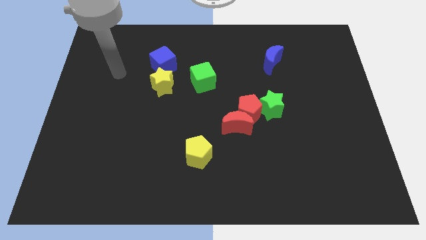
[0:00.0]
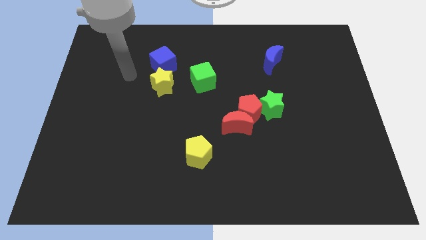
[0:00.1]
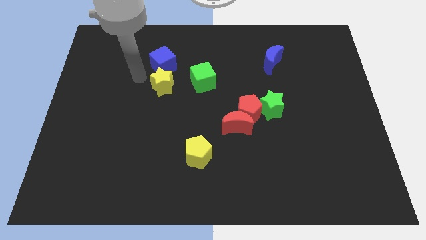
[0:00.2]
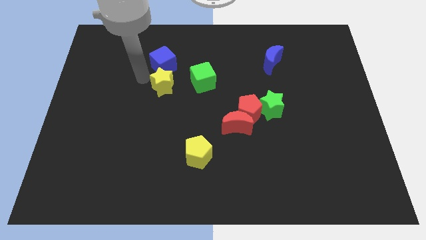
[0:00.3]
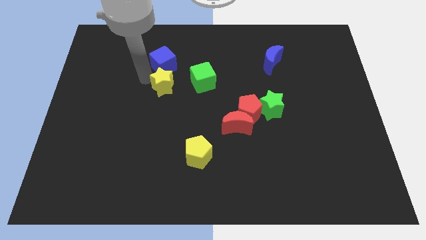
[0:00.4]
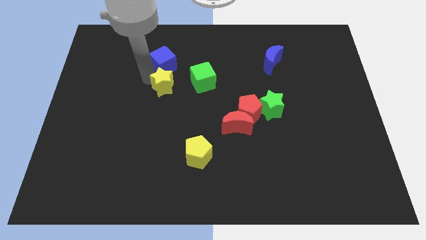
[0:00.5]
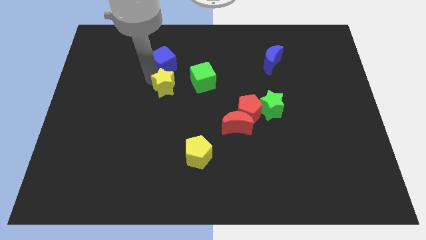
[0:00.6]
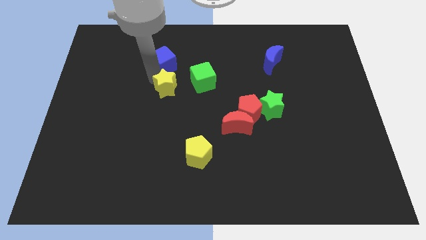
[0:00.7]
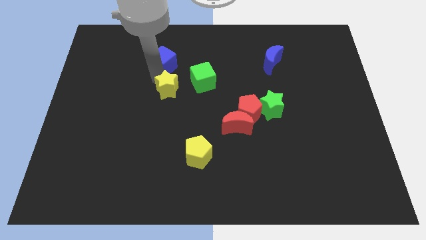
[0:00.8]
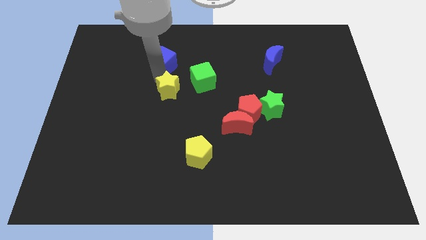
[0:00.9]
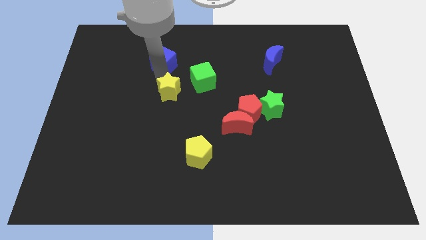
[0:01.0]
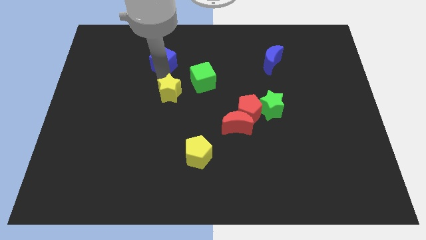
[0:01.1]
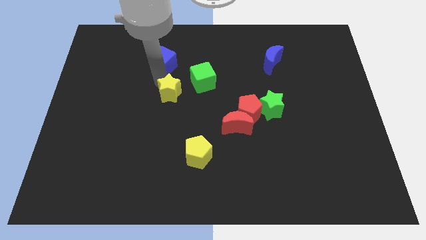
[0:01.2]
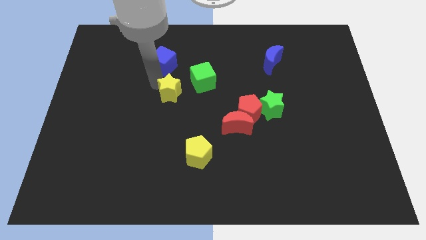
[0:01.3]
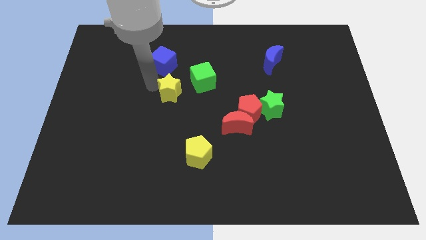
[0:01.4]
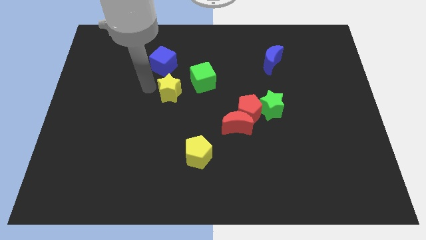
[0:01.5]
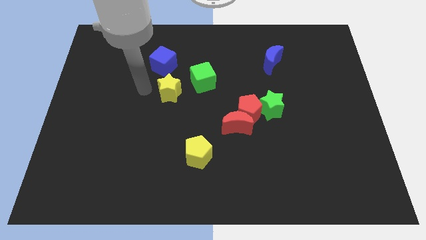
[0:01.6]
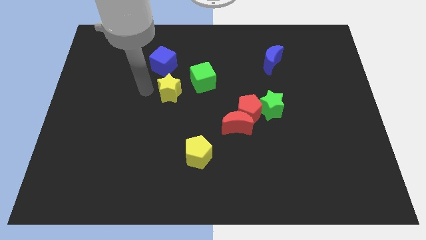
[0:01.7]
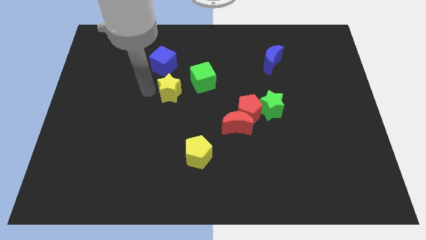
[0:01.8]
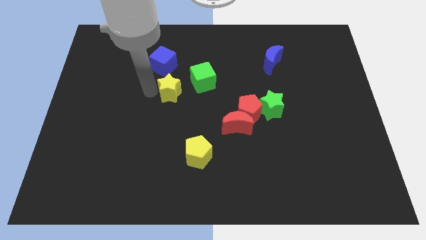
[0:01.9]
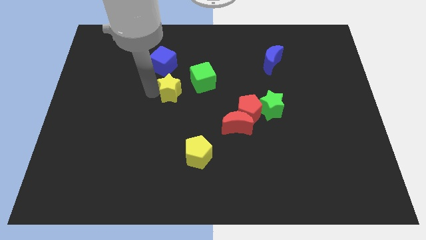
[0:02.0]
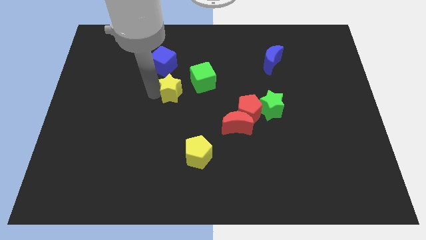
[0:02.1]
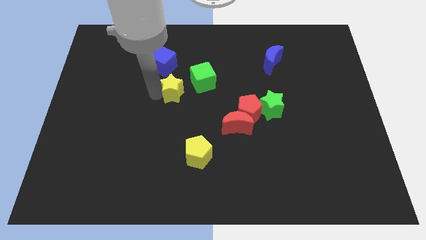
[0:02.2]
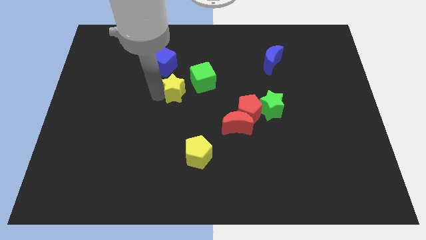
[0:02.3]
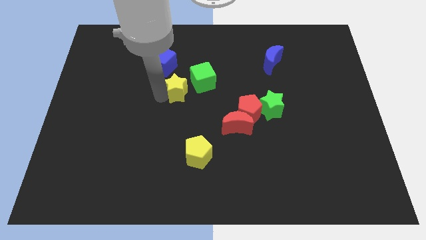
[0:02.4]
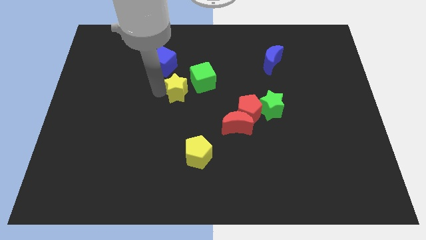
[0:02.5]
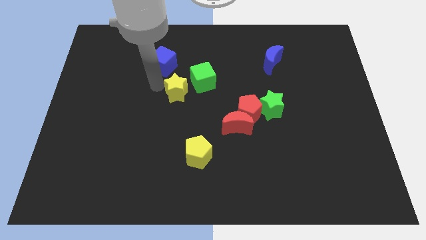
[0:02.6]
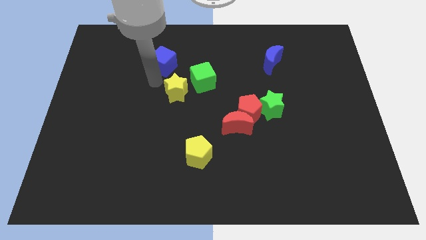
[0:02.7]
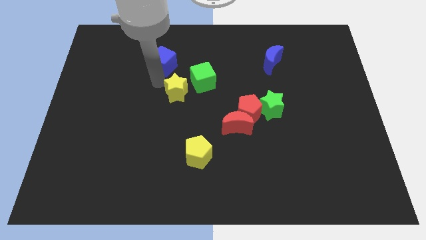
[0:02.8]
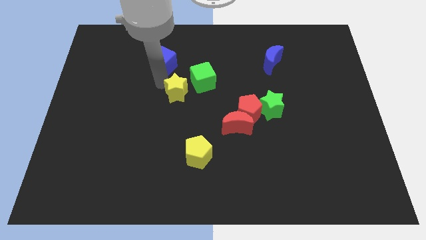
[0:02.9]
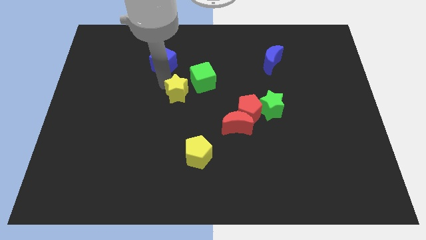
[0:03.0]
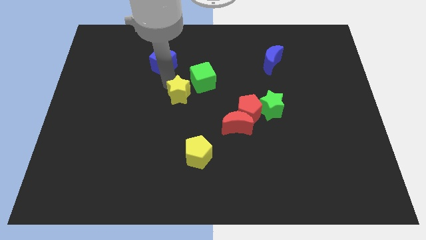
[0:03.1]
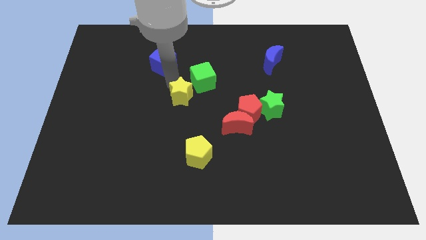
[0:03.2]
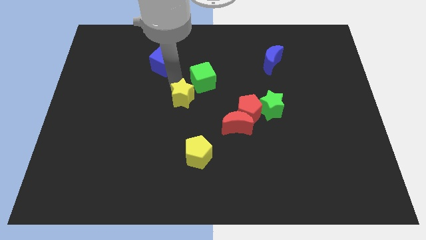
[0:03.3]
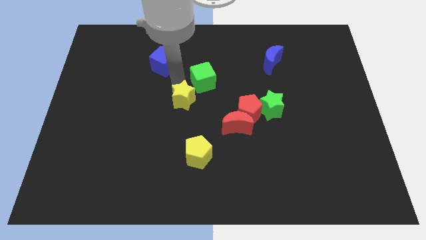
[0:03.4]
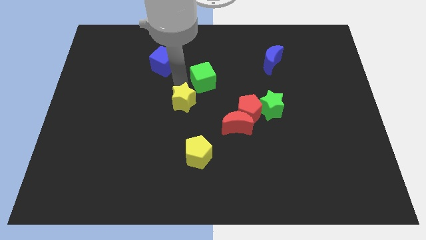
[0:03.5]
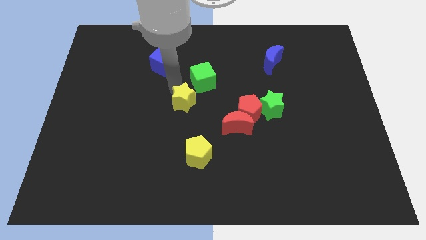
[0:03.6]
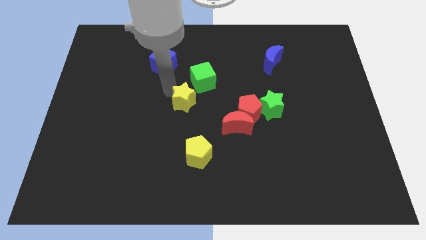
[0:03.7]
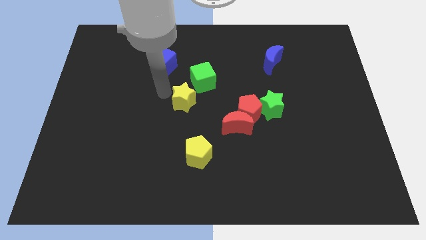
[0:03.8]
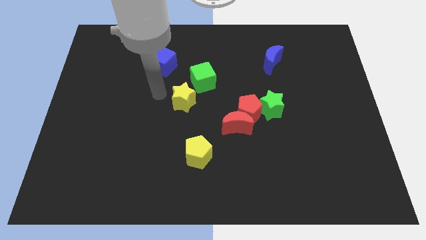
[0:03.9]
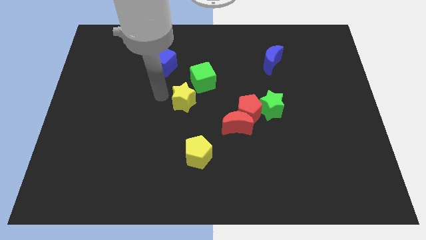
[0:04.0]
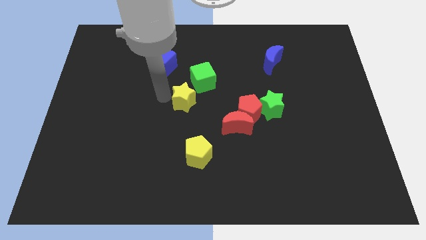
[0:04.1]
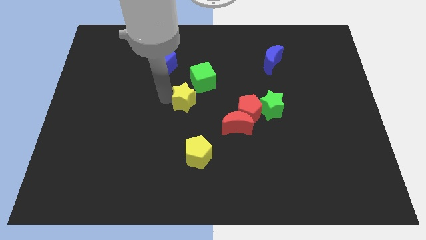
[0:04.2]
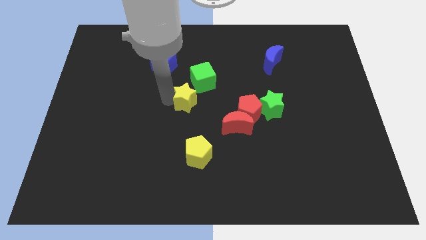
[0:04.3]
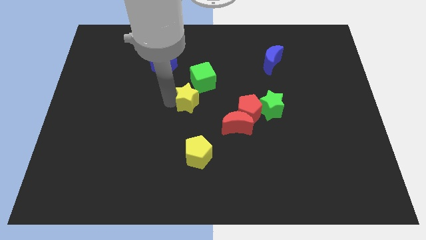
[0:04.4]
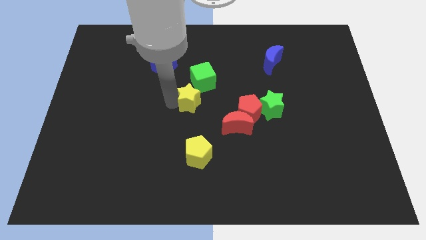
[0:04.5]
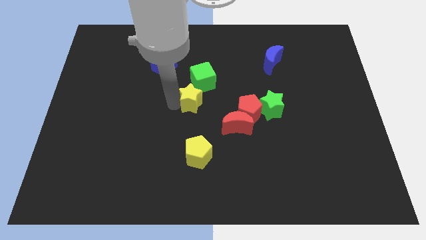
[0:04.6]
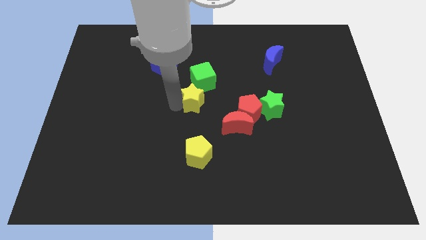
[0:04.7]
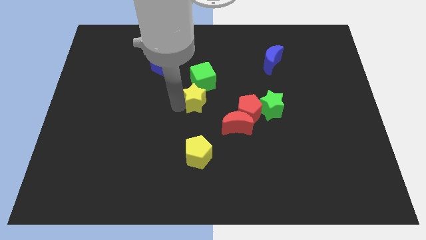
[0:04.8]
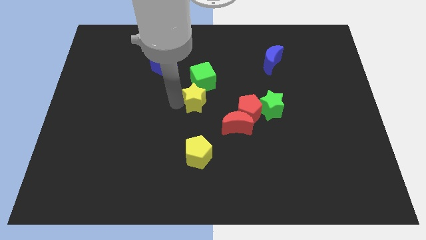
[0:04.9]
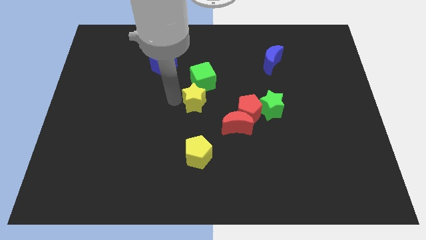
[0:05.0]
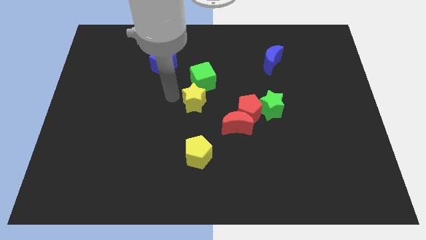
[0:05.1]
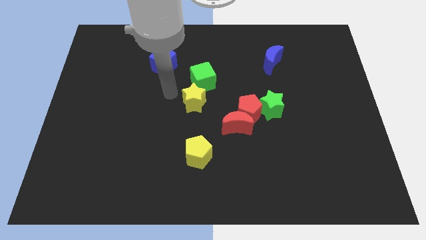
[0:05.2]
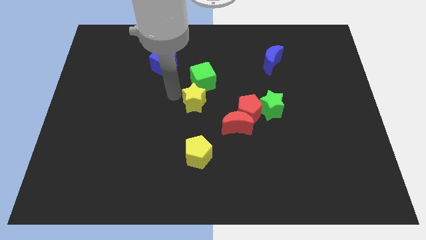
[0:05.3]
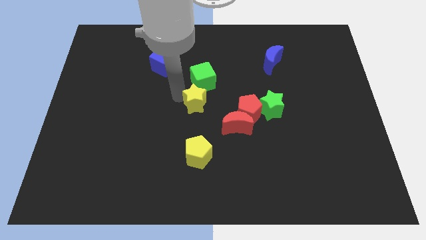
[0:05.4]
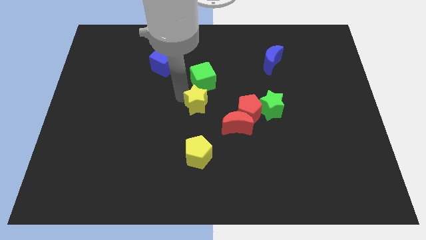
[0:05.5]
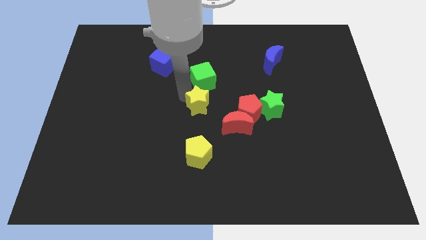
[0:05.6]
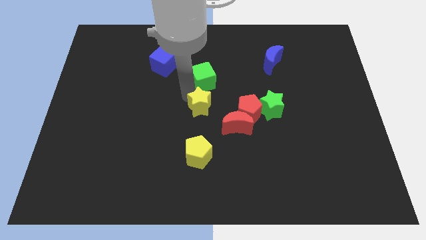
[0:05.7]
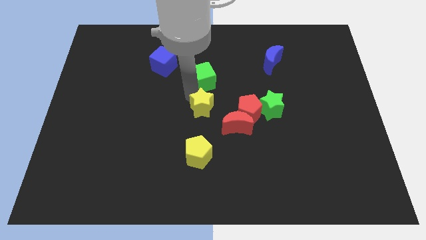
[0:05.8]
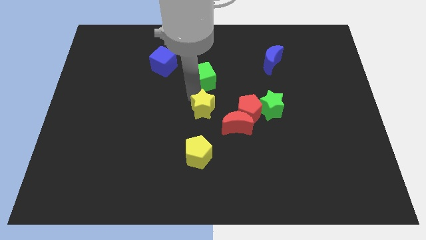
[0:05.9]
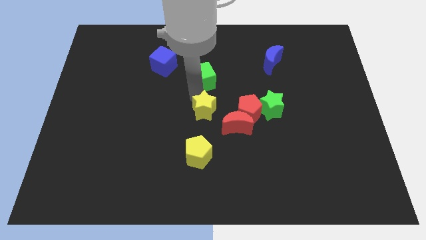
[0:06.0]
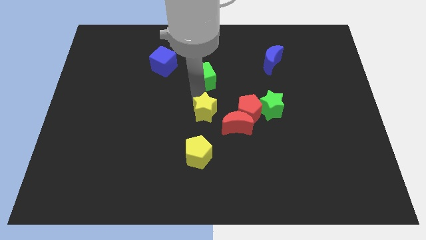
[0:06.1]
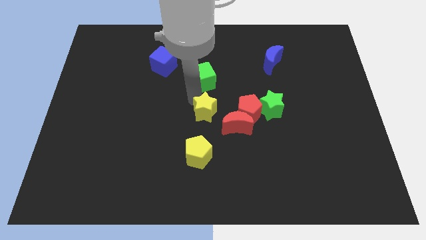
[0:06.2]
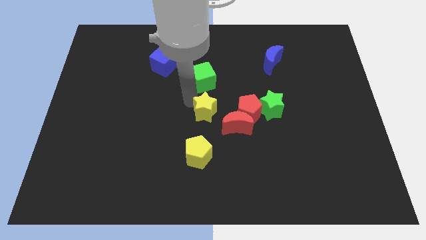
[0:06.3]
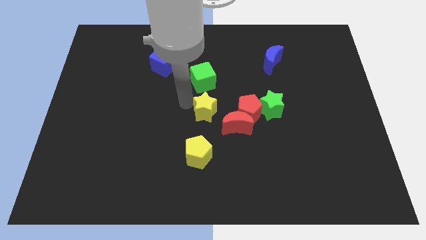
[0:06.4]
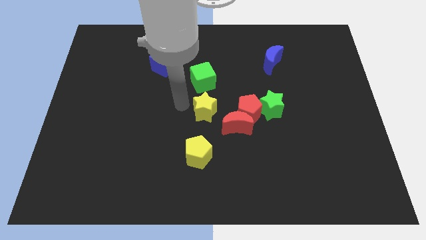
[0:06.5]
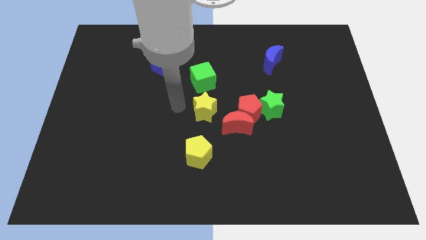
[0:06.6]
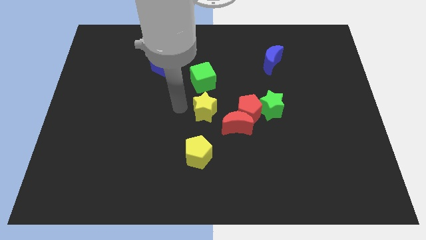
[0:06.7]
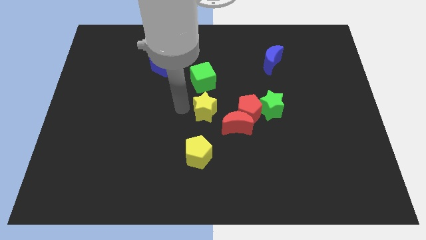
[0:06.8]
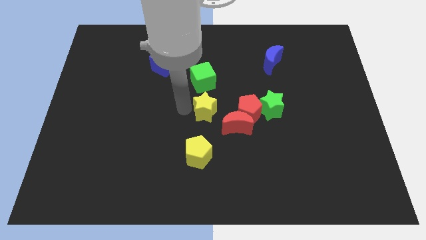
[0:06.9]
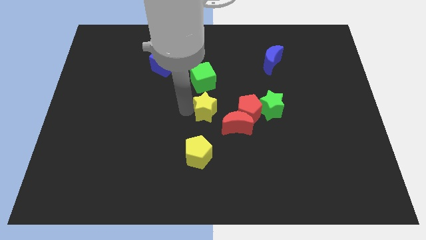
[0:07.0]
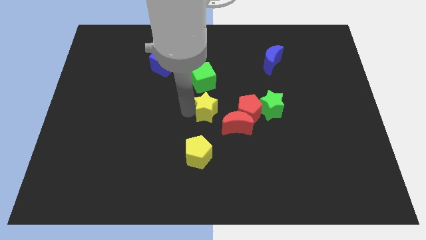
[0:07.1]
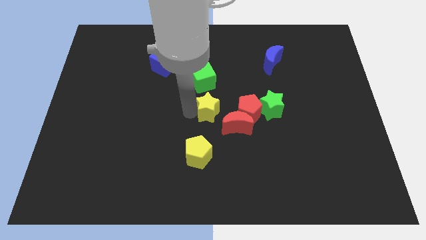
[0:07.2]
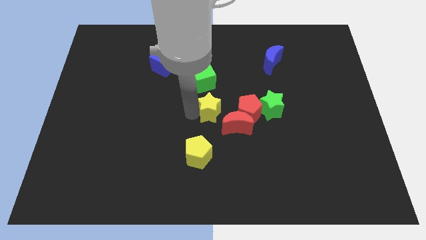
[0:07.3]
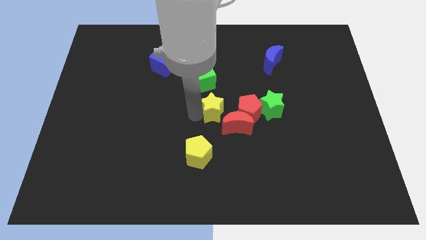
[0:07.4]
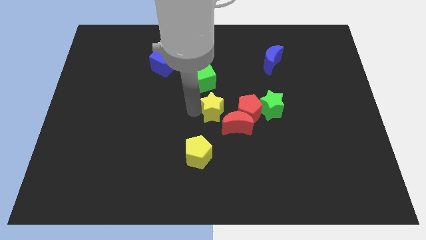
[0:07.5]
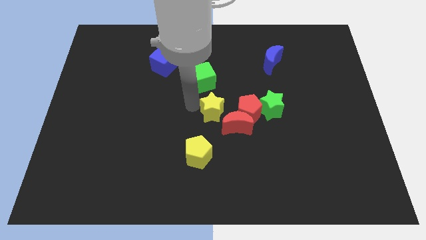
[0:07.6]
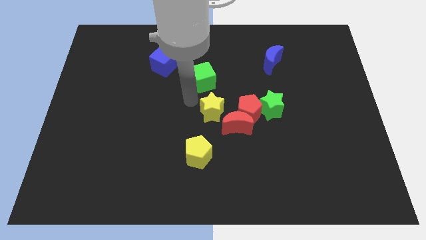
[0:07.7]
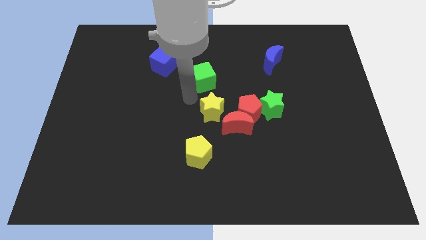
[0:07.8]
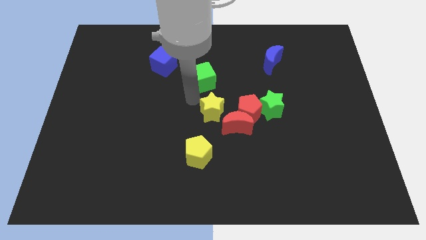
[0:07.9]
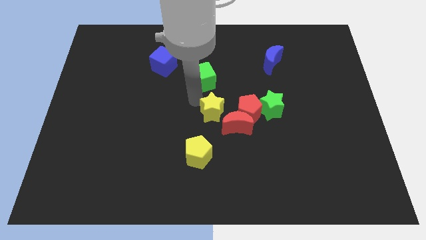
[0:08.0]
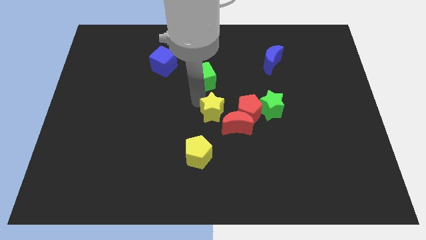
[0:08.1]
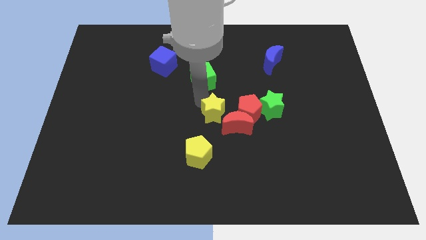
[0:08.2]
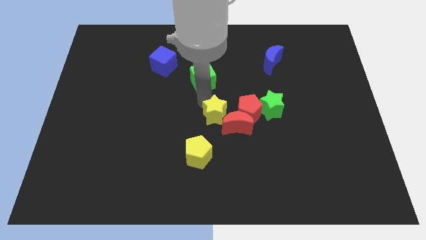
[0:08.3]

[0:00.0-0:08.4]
move the yellow star close to the red moon
